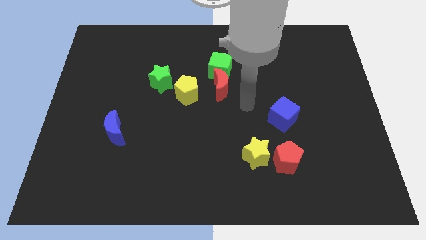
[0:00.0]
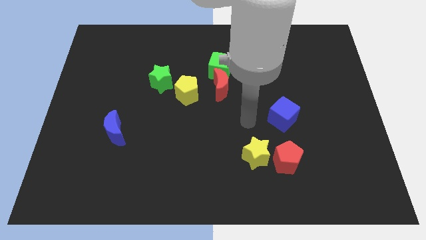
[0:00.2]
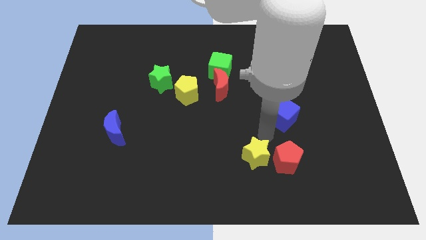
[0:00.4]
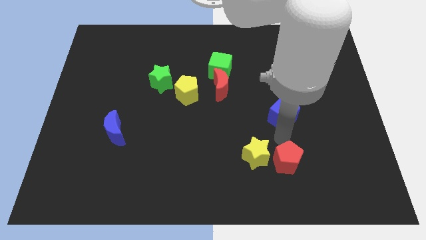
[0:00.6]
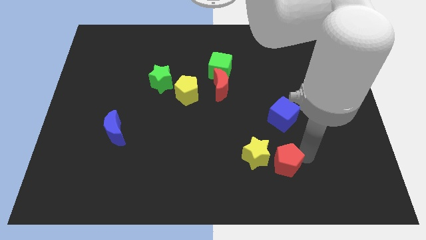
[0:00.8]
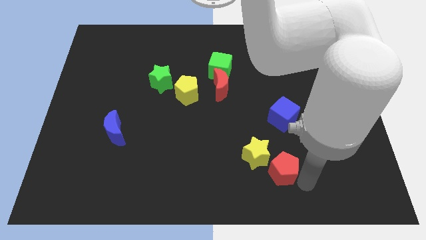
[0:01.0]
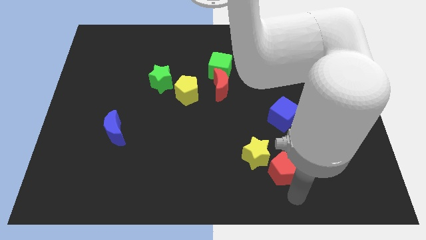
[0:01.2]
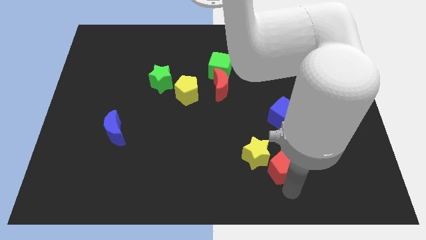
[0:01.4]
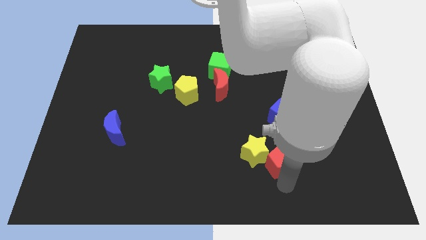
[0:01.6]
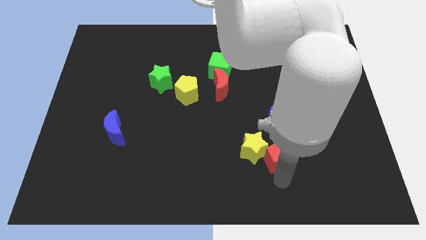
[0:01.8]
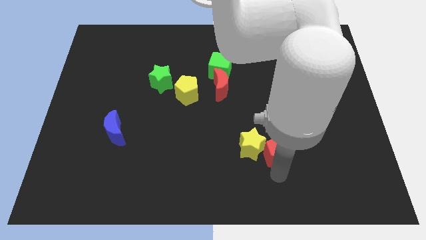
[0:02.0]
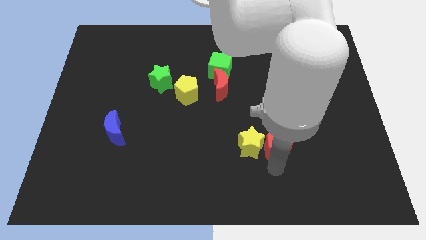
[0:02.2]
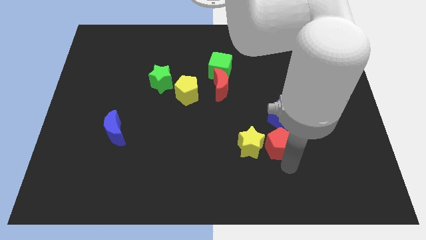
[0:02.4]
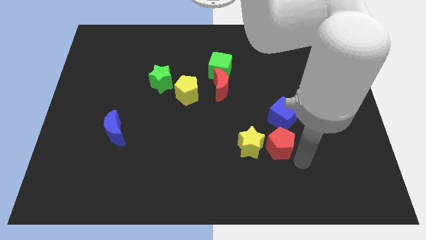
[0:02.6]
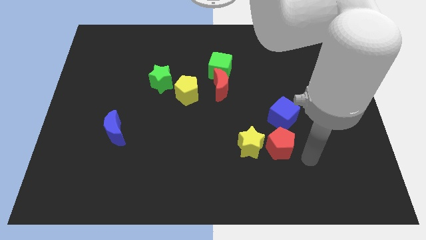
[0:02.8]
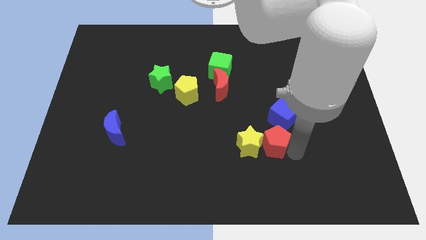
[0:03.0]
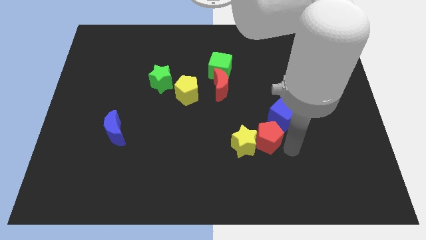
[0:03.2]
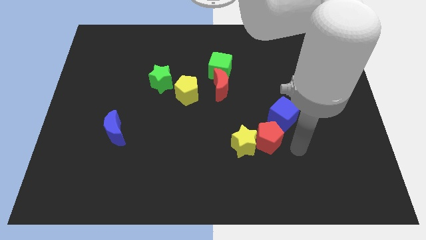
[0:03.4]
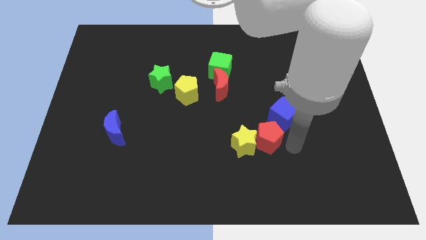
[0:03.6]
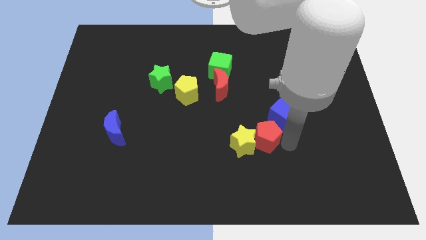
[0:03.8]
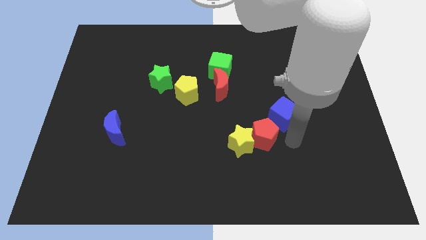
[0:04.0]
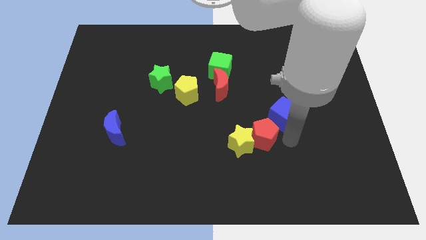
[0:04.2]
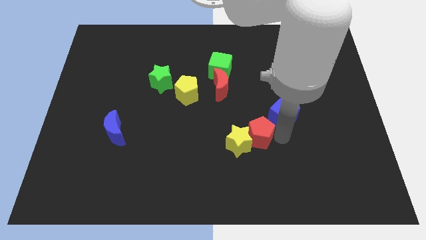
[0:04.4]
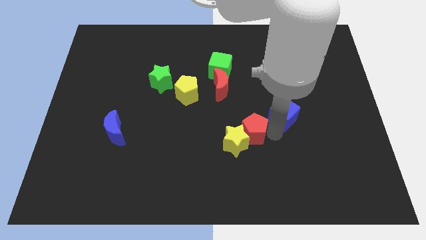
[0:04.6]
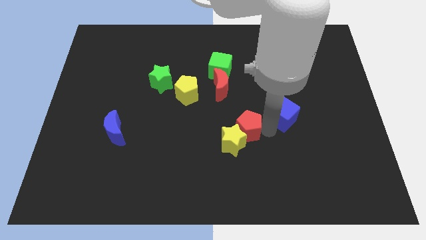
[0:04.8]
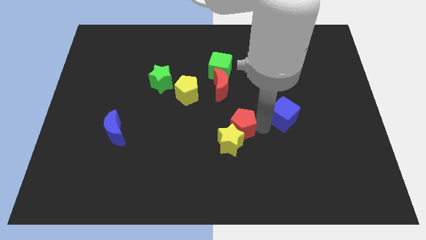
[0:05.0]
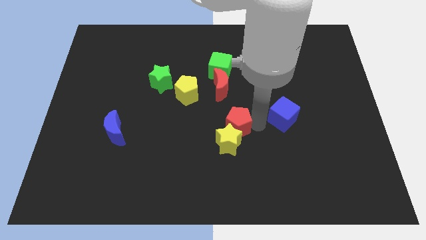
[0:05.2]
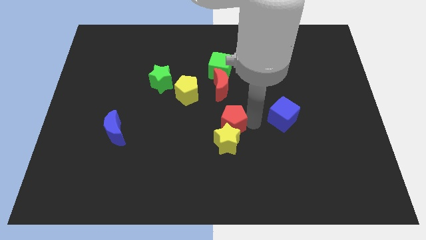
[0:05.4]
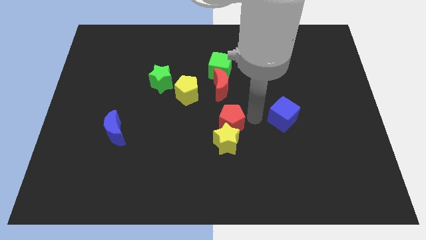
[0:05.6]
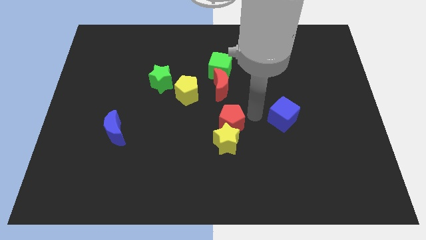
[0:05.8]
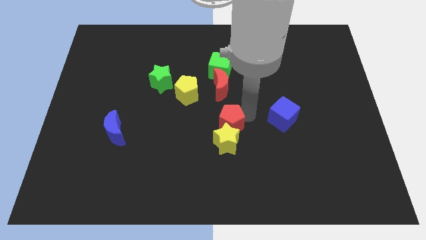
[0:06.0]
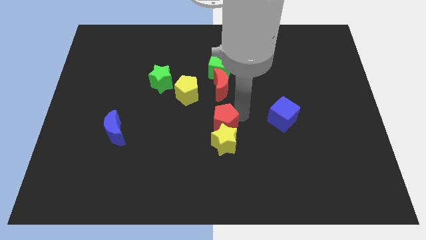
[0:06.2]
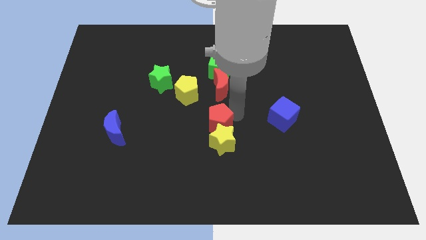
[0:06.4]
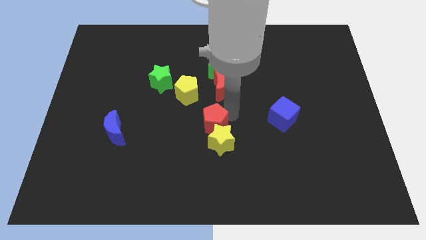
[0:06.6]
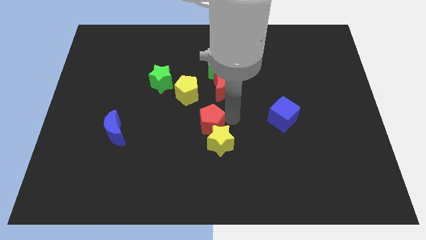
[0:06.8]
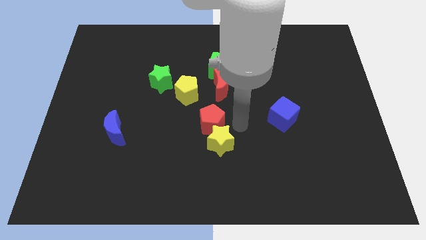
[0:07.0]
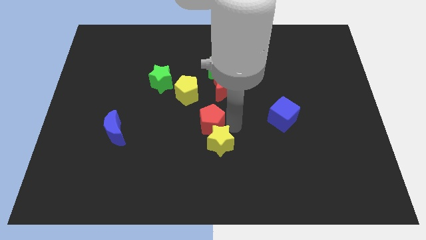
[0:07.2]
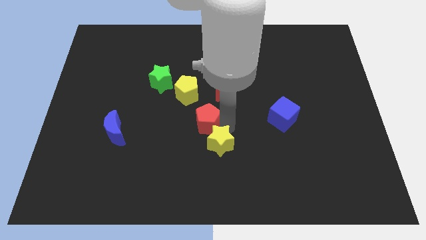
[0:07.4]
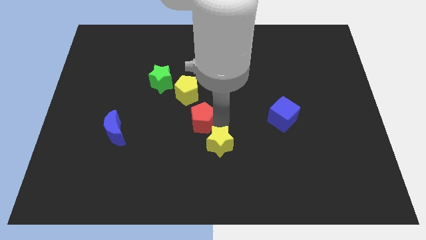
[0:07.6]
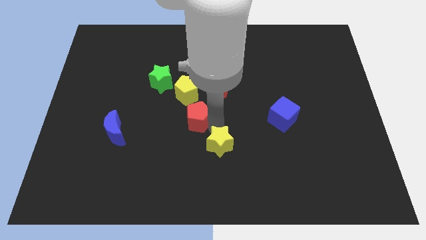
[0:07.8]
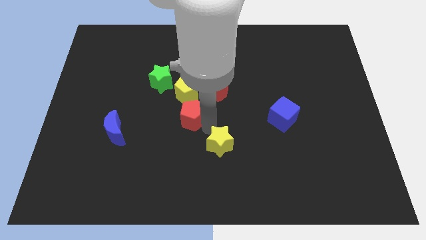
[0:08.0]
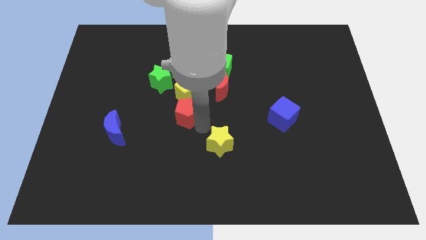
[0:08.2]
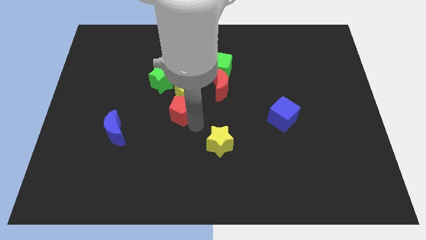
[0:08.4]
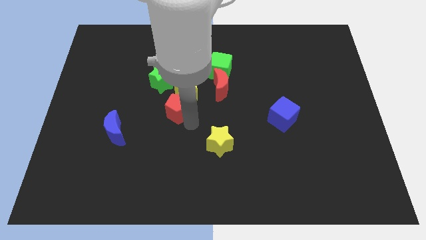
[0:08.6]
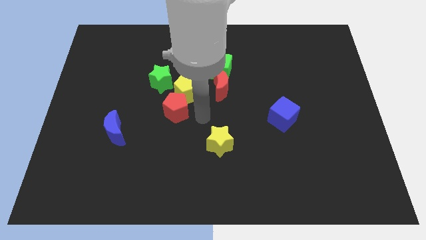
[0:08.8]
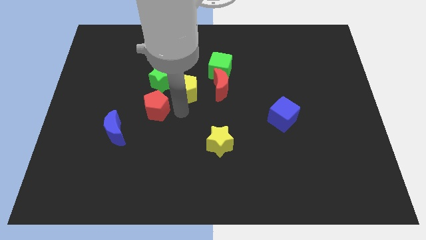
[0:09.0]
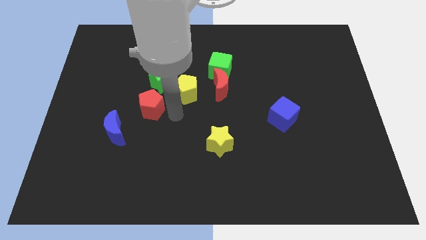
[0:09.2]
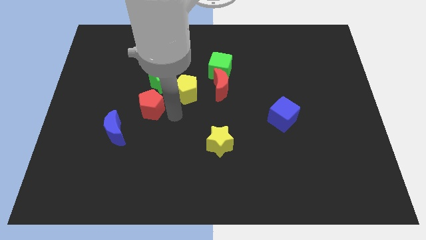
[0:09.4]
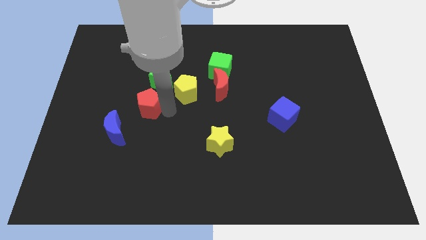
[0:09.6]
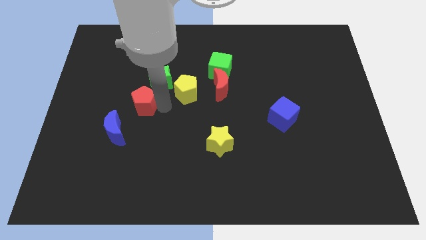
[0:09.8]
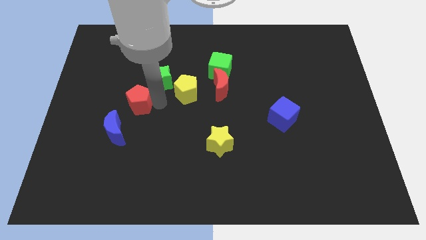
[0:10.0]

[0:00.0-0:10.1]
push the red pentagon to the top side of the blue moon

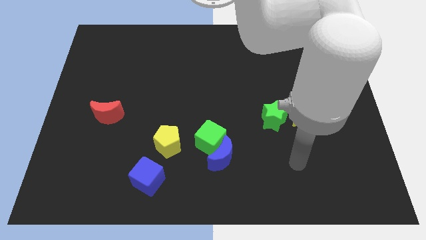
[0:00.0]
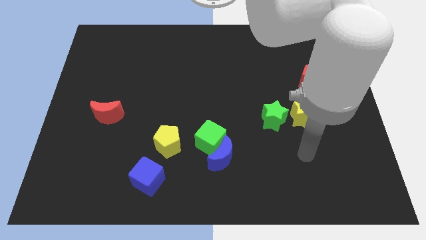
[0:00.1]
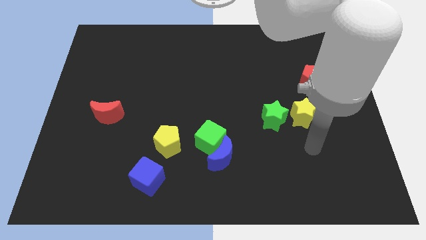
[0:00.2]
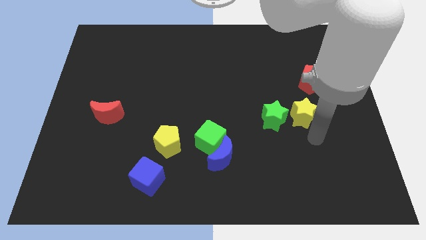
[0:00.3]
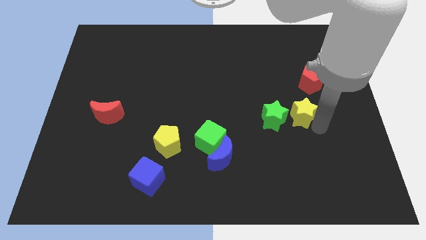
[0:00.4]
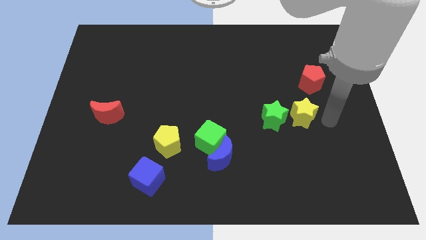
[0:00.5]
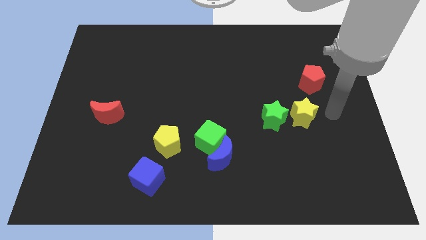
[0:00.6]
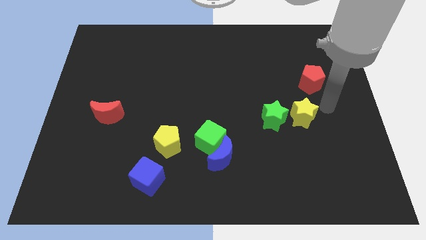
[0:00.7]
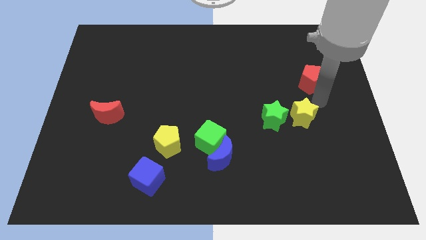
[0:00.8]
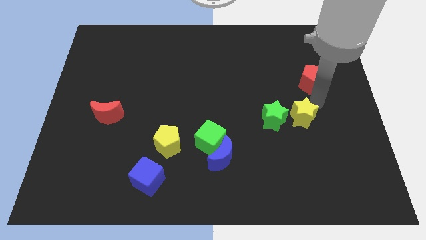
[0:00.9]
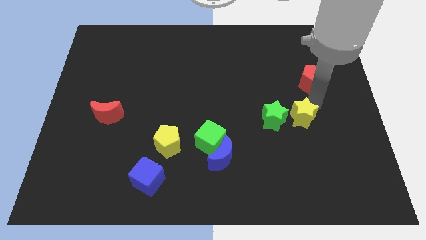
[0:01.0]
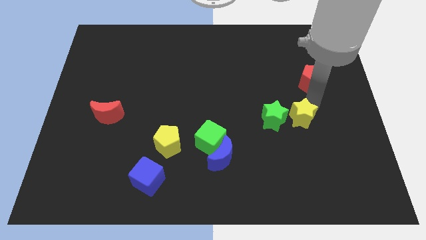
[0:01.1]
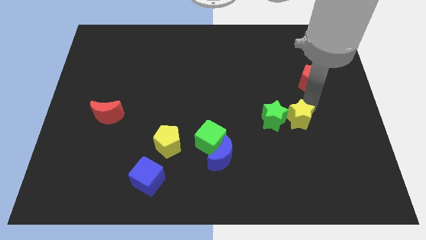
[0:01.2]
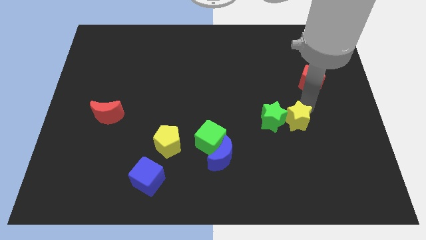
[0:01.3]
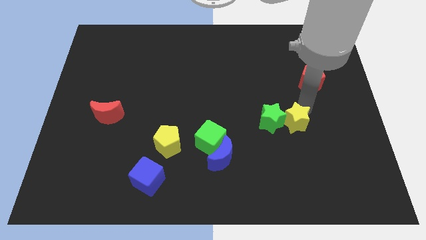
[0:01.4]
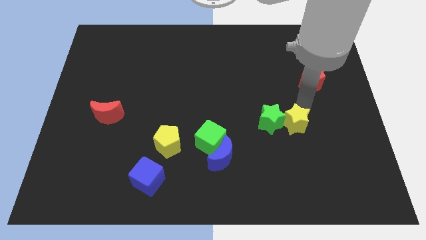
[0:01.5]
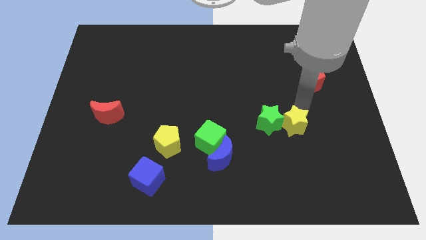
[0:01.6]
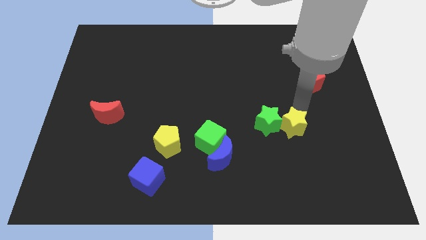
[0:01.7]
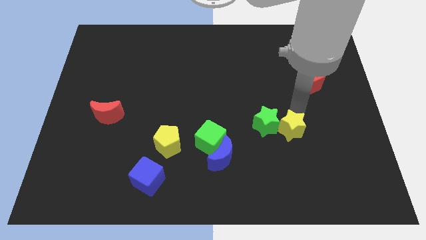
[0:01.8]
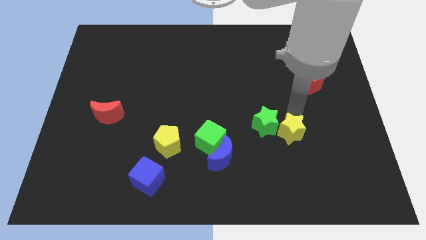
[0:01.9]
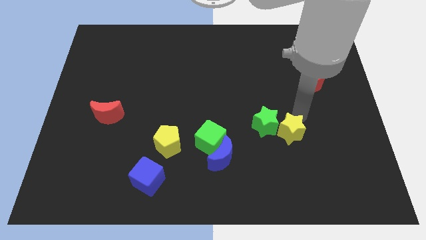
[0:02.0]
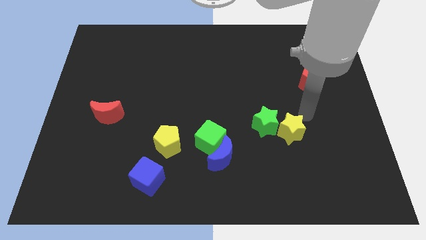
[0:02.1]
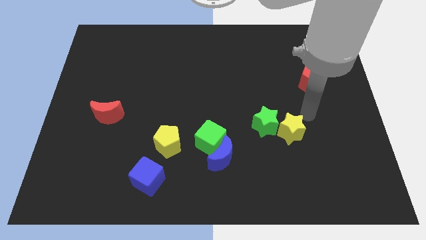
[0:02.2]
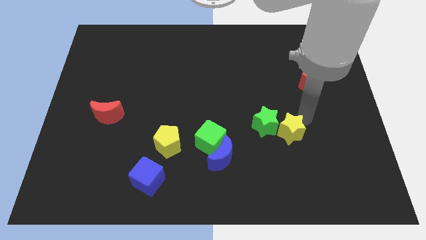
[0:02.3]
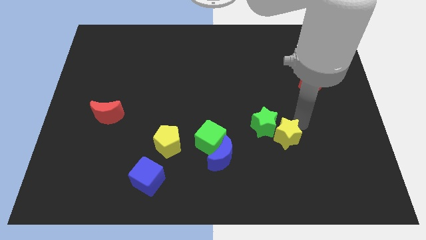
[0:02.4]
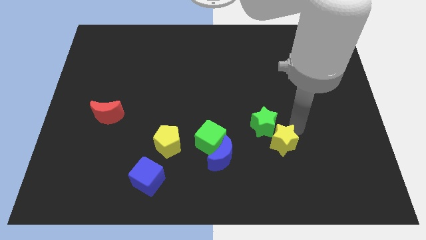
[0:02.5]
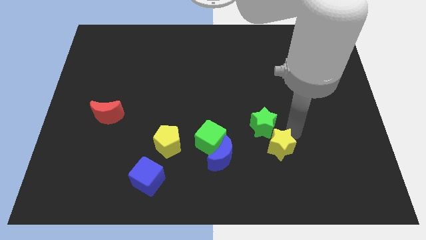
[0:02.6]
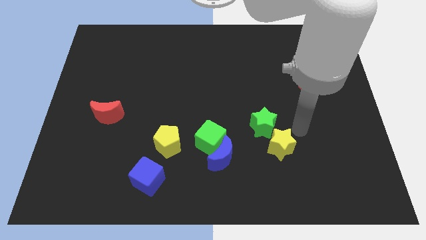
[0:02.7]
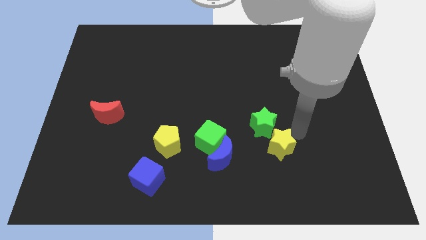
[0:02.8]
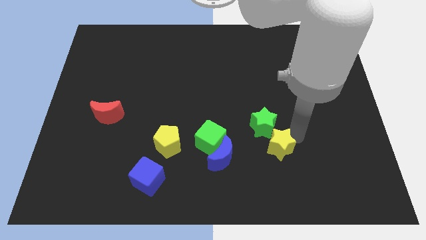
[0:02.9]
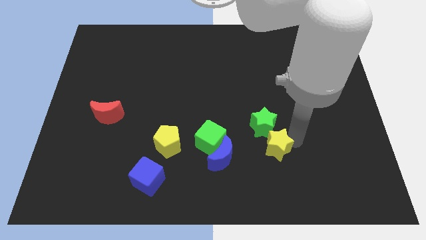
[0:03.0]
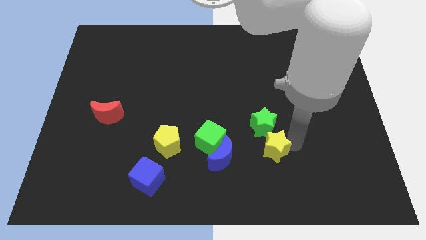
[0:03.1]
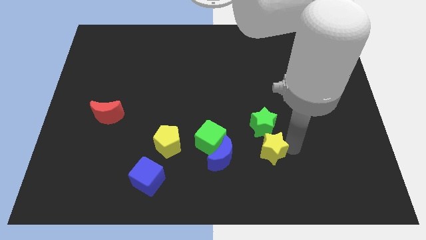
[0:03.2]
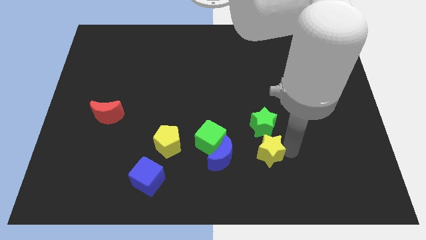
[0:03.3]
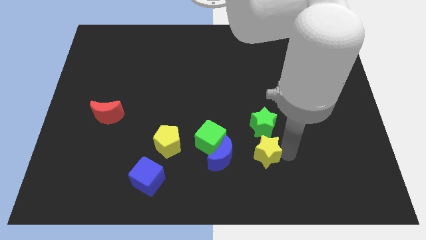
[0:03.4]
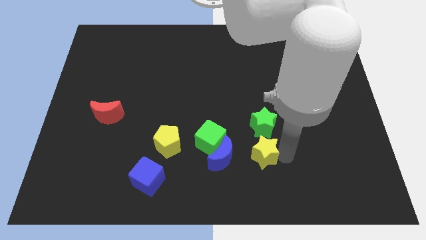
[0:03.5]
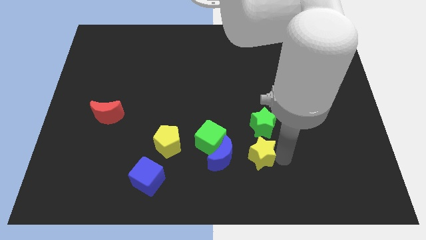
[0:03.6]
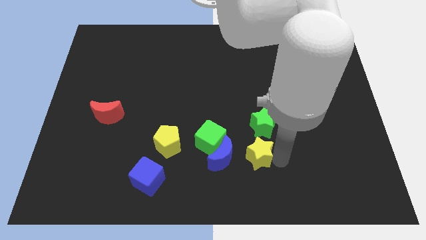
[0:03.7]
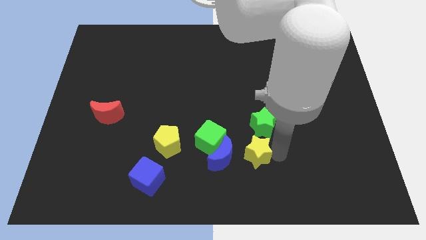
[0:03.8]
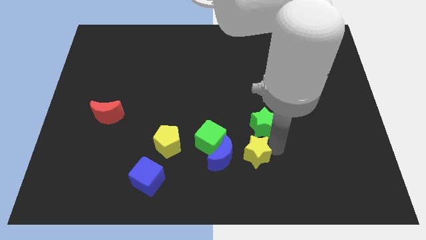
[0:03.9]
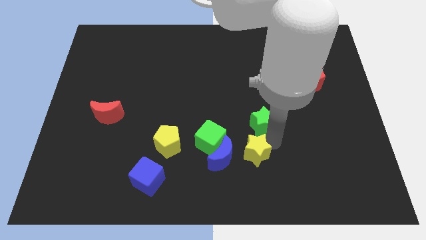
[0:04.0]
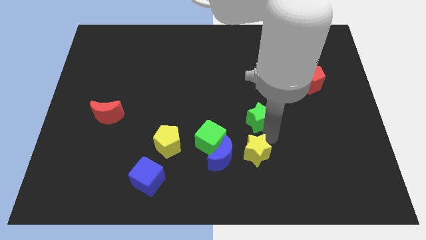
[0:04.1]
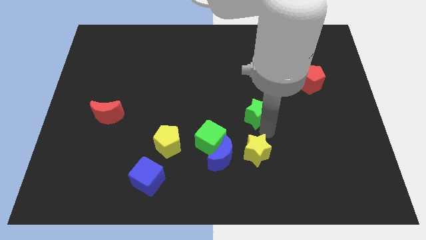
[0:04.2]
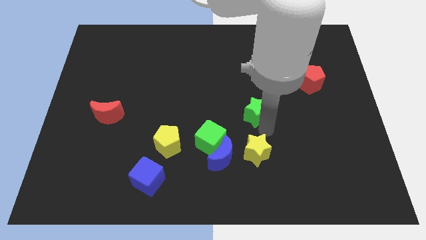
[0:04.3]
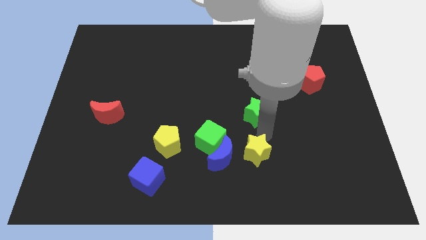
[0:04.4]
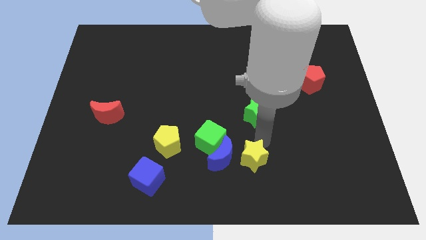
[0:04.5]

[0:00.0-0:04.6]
slide the yellow star to the bottom right of the blue moon
